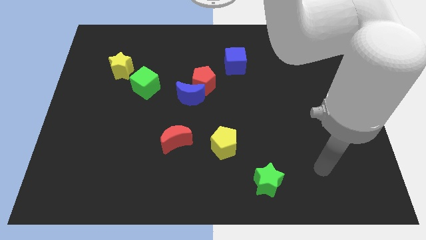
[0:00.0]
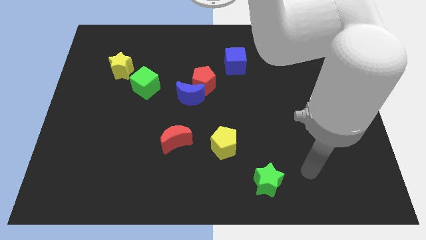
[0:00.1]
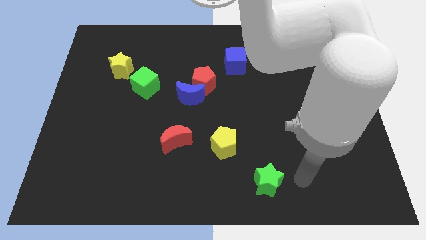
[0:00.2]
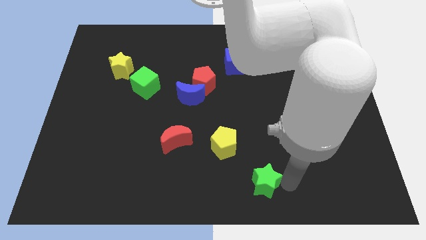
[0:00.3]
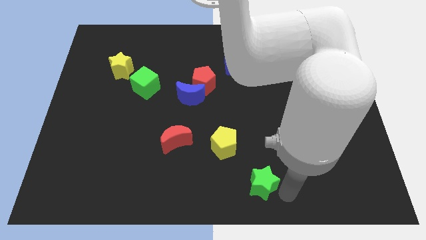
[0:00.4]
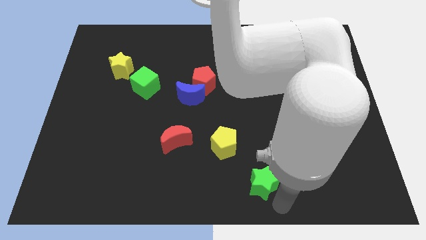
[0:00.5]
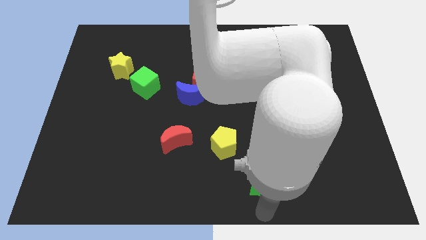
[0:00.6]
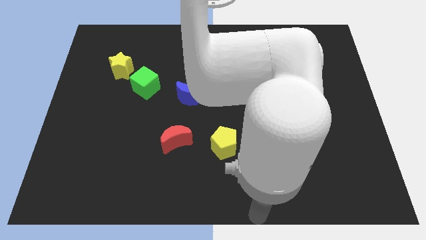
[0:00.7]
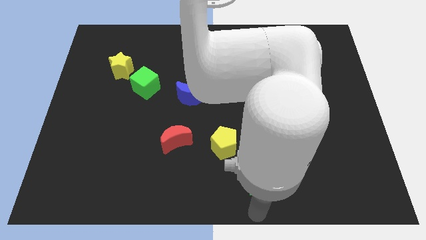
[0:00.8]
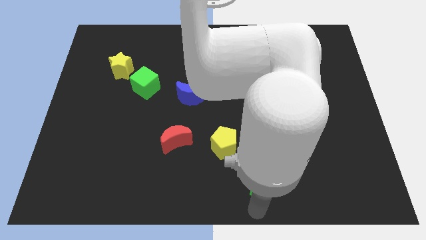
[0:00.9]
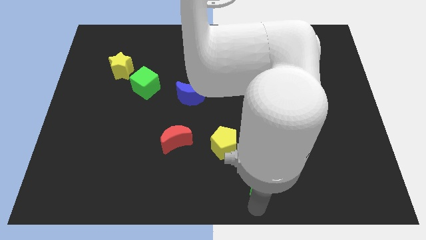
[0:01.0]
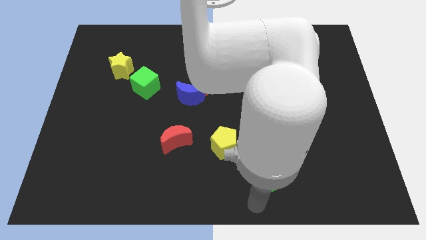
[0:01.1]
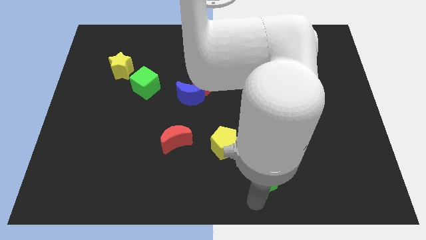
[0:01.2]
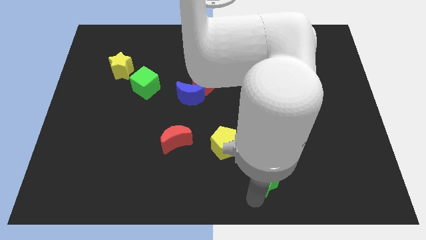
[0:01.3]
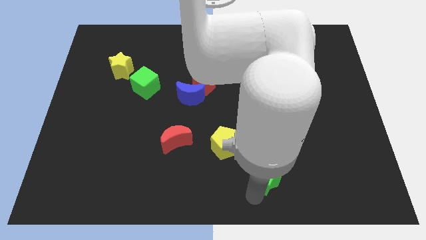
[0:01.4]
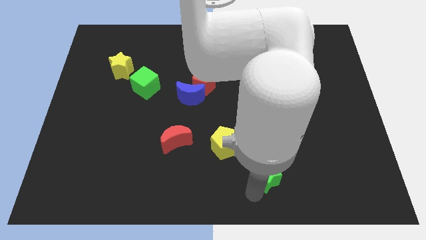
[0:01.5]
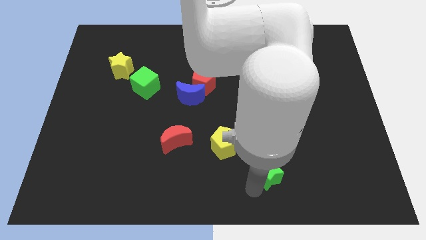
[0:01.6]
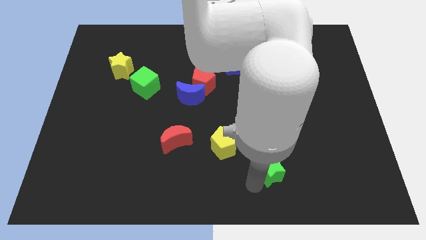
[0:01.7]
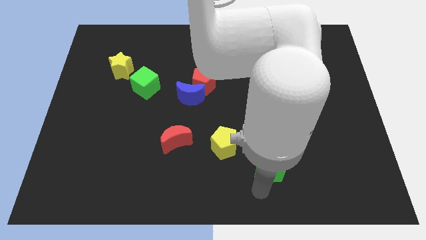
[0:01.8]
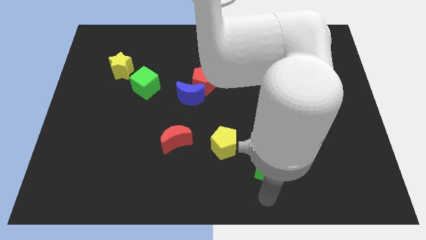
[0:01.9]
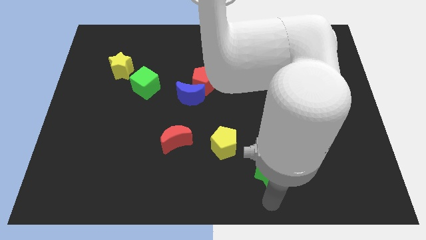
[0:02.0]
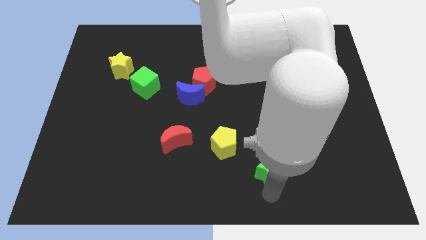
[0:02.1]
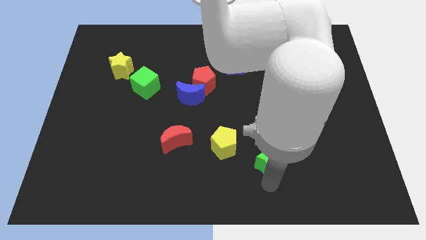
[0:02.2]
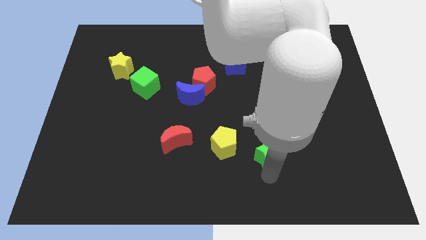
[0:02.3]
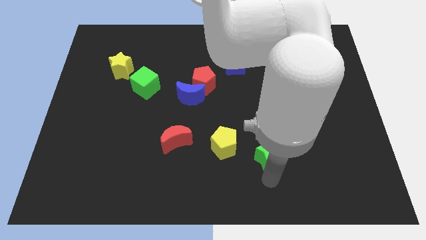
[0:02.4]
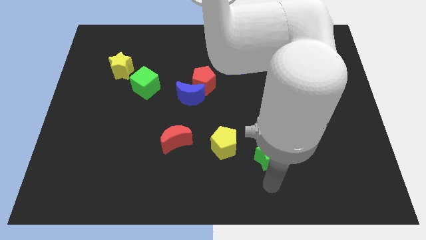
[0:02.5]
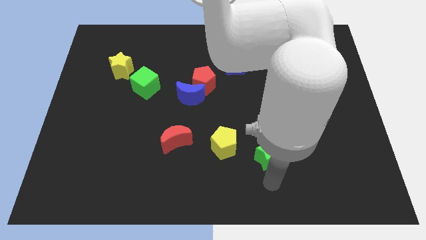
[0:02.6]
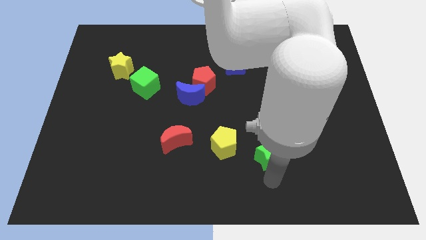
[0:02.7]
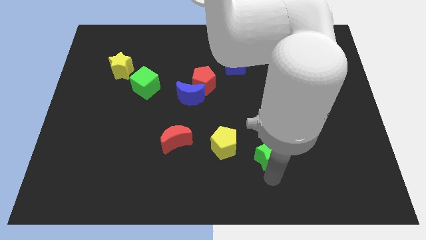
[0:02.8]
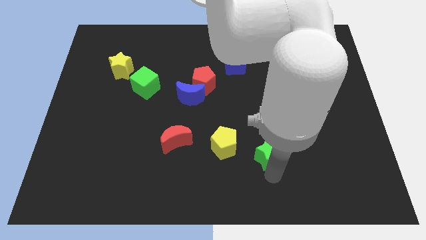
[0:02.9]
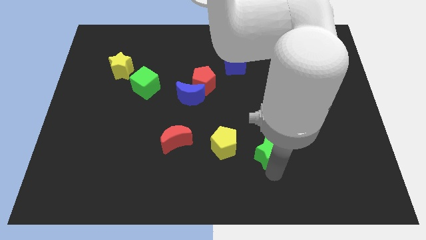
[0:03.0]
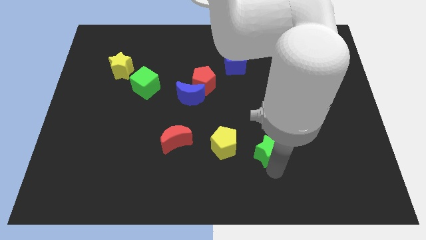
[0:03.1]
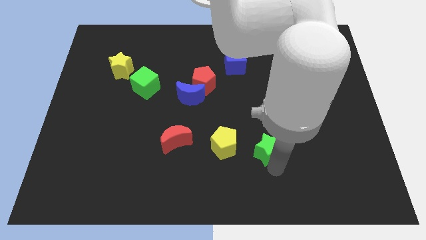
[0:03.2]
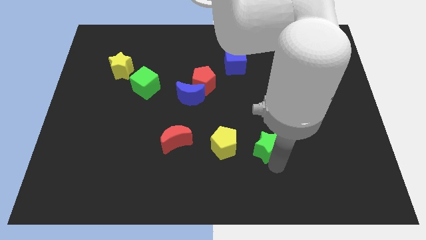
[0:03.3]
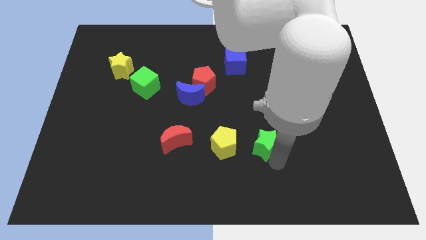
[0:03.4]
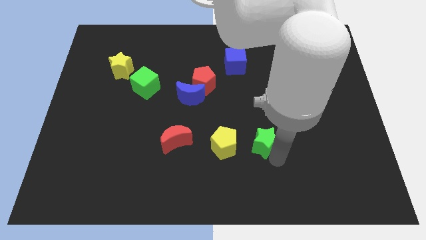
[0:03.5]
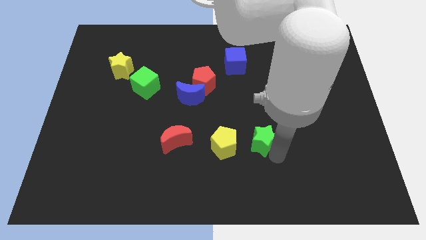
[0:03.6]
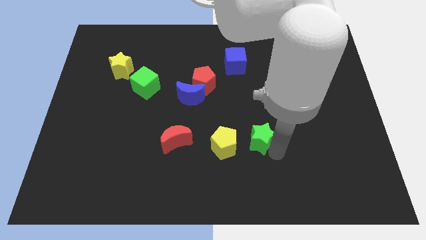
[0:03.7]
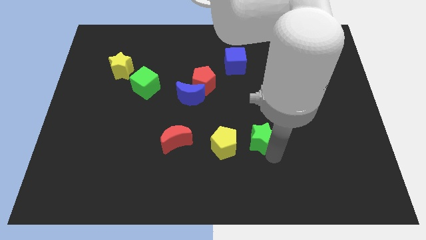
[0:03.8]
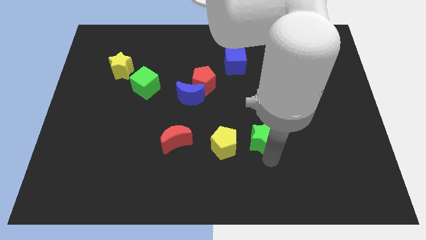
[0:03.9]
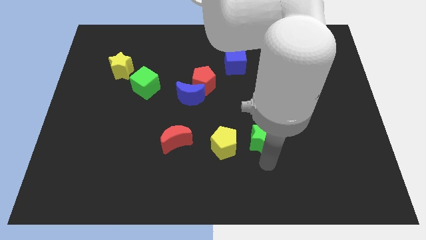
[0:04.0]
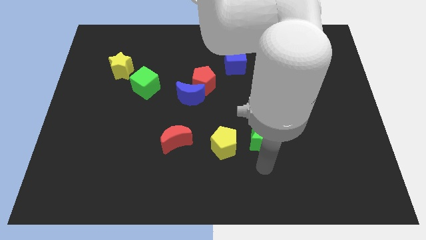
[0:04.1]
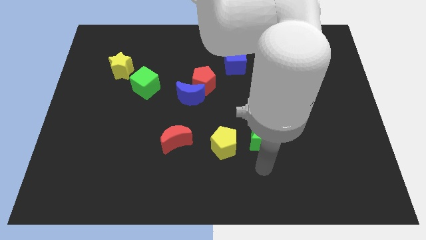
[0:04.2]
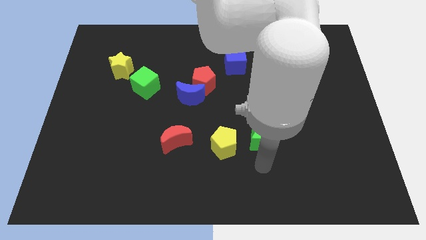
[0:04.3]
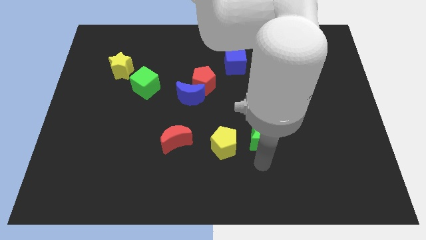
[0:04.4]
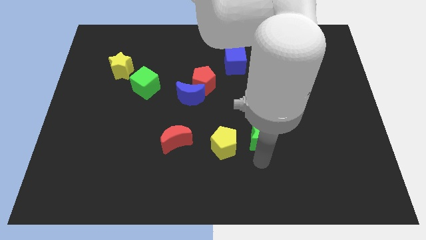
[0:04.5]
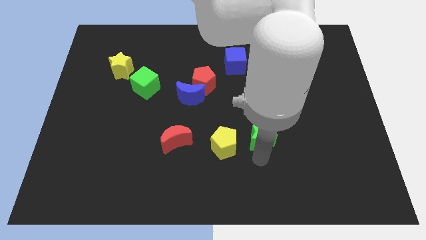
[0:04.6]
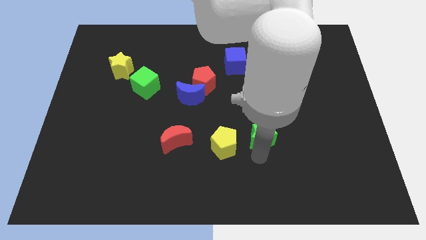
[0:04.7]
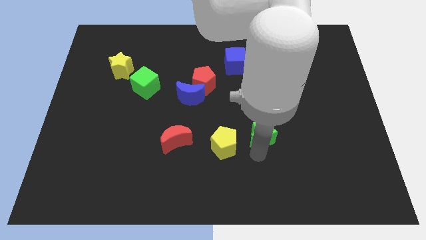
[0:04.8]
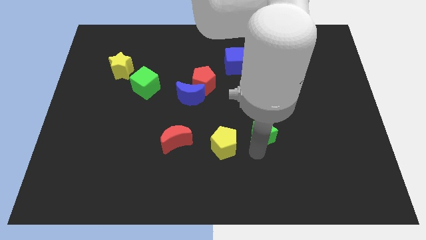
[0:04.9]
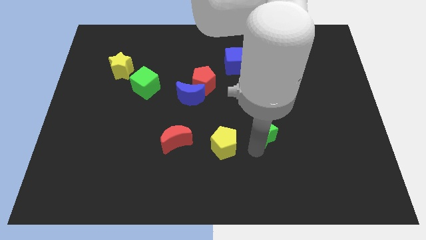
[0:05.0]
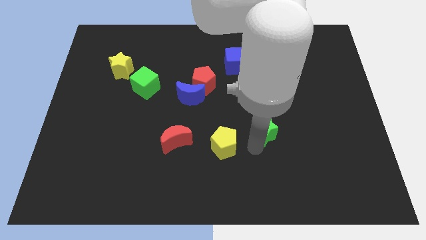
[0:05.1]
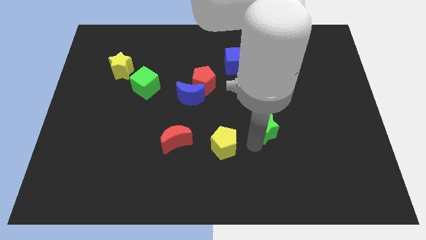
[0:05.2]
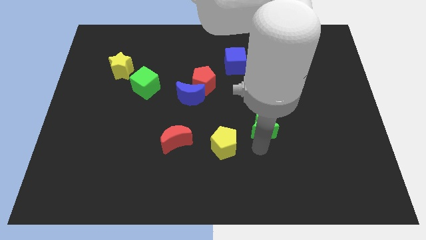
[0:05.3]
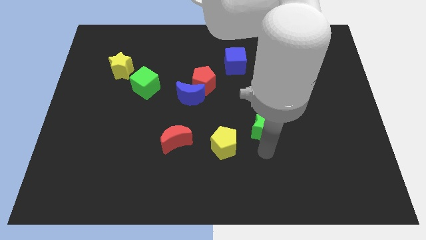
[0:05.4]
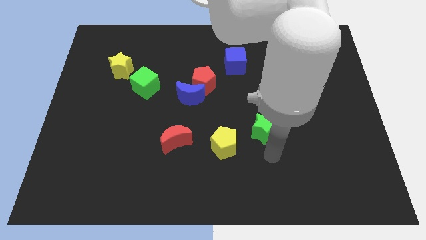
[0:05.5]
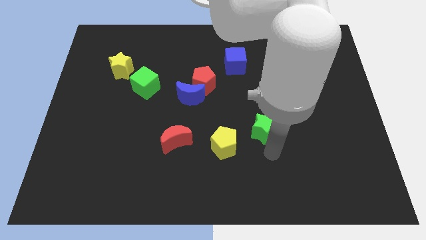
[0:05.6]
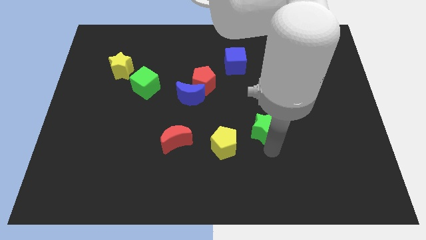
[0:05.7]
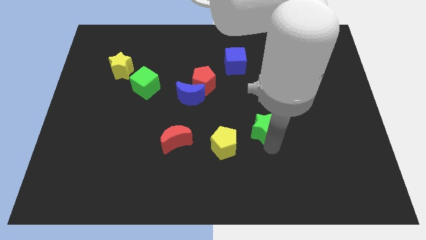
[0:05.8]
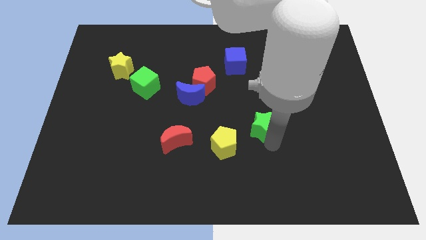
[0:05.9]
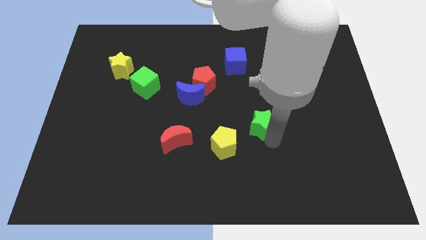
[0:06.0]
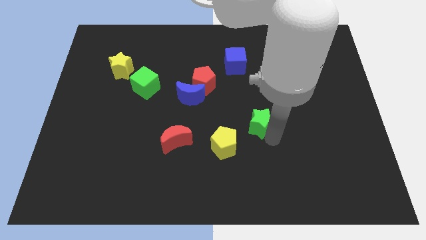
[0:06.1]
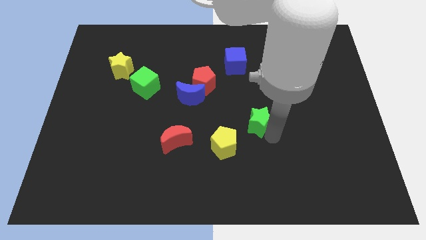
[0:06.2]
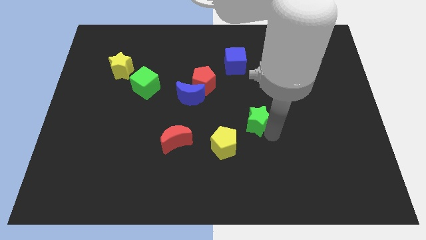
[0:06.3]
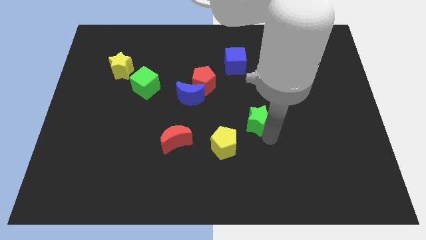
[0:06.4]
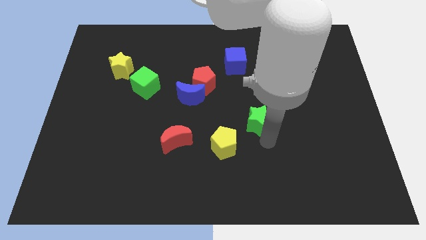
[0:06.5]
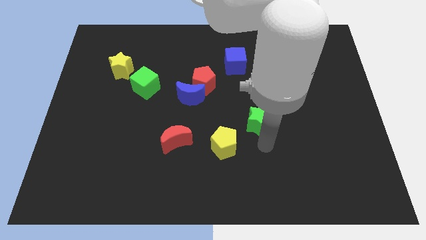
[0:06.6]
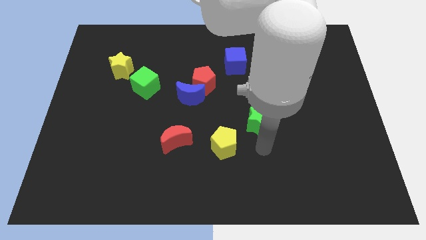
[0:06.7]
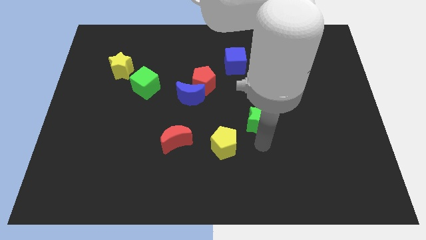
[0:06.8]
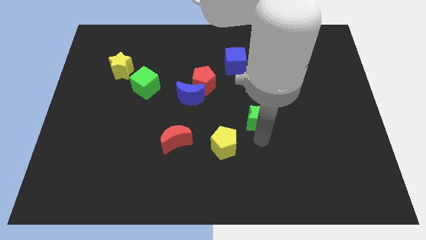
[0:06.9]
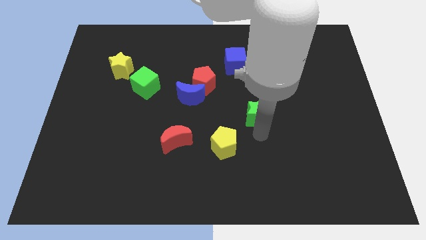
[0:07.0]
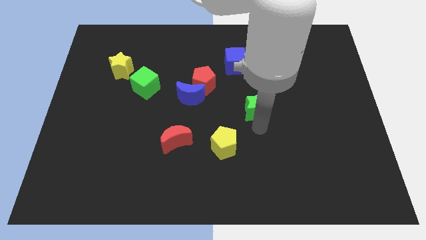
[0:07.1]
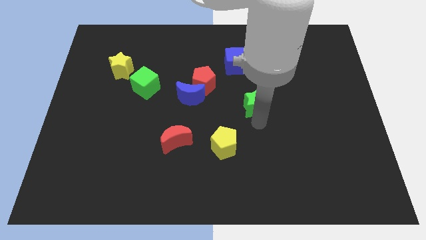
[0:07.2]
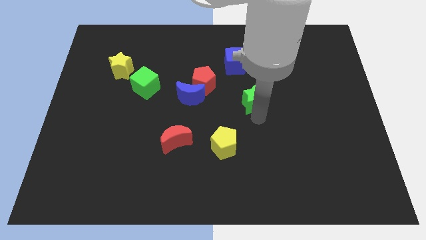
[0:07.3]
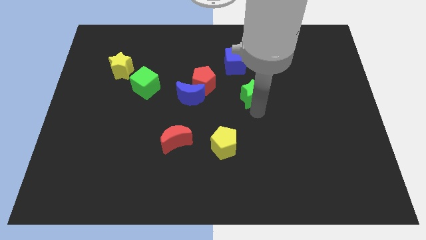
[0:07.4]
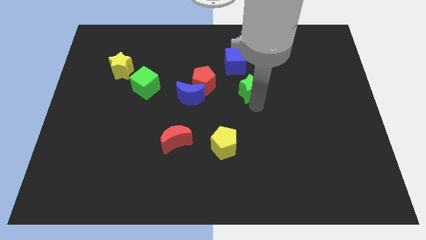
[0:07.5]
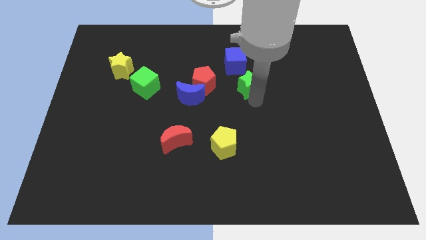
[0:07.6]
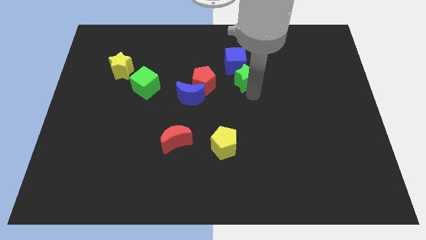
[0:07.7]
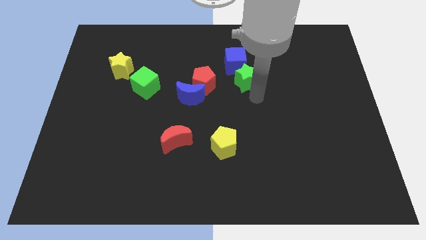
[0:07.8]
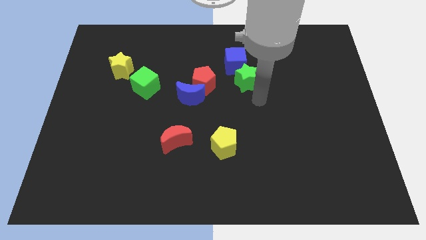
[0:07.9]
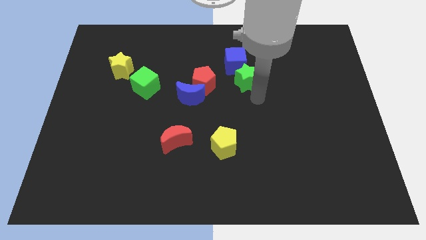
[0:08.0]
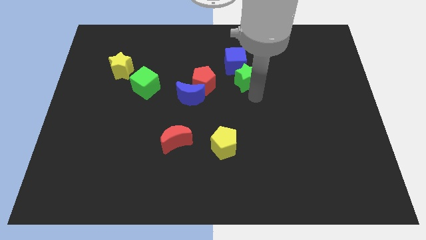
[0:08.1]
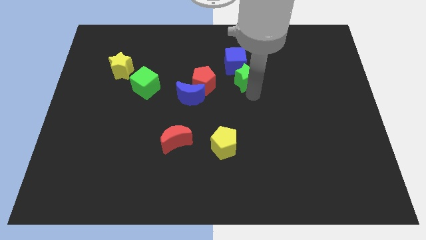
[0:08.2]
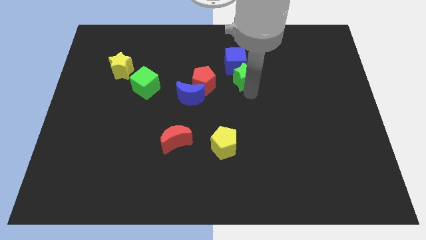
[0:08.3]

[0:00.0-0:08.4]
move the green star towards the blue cube
